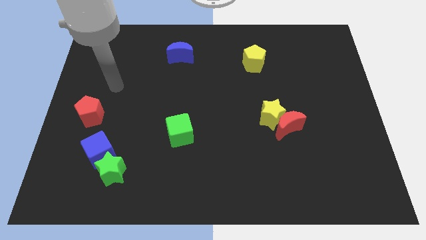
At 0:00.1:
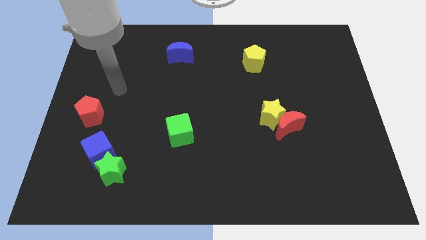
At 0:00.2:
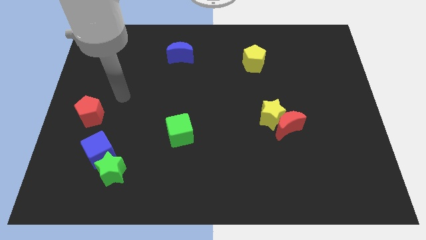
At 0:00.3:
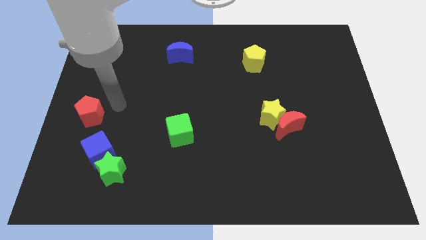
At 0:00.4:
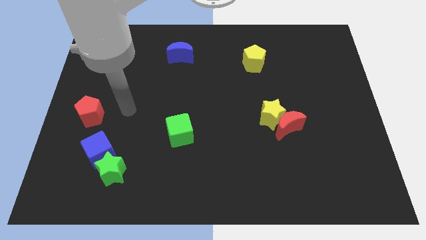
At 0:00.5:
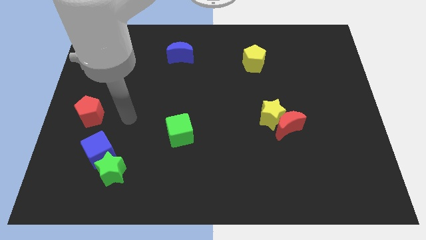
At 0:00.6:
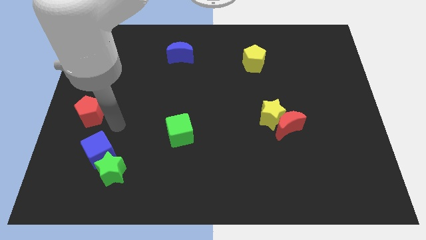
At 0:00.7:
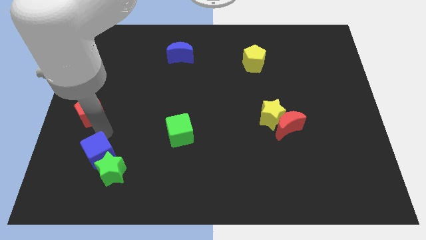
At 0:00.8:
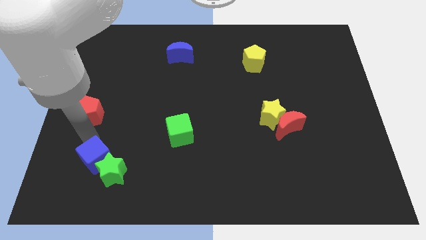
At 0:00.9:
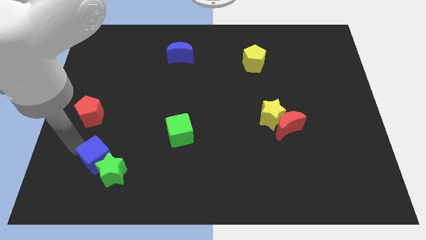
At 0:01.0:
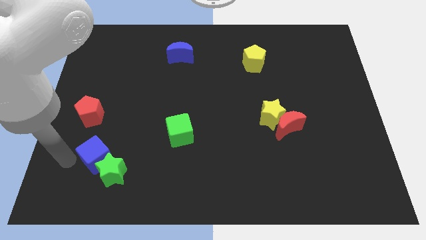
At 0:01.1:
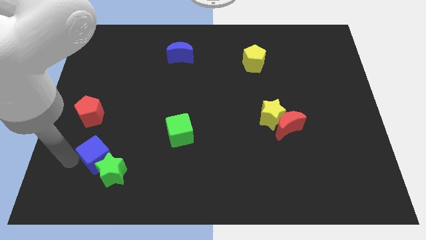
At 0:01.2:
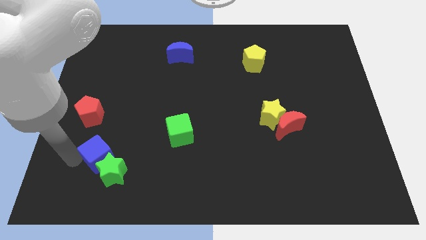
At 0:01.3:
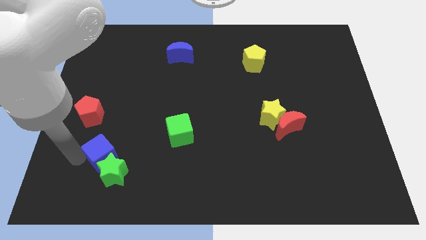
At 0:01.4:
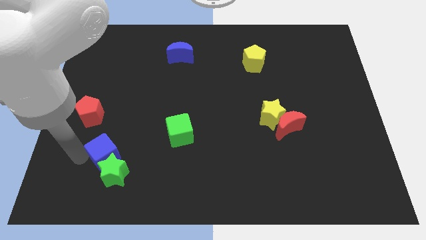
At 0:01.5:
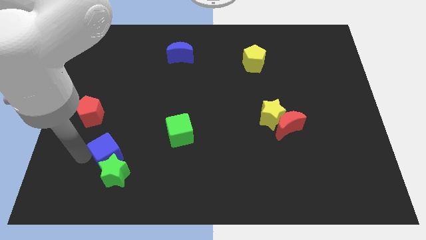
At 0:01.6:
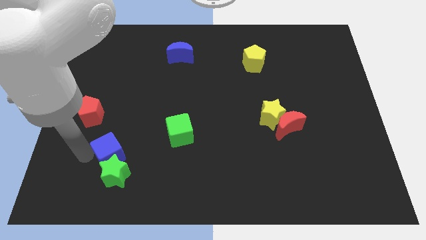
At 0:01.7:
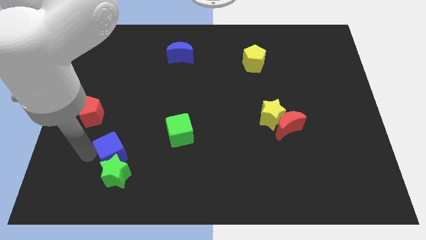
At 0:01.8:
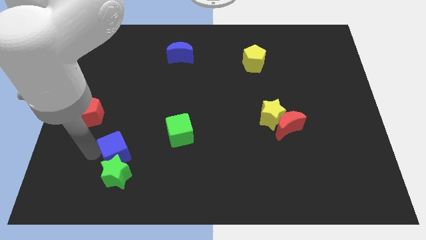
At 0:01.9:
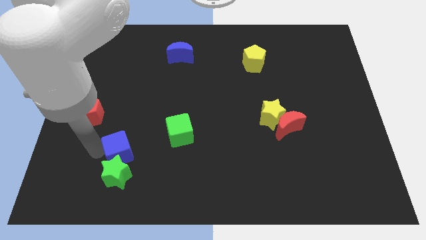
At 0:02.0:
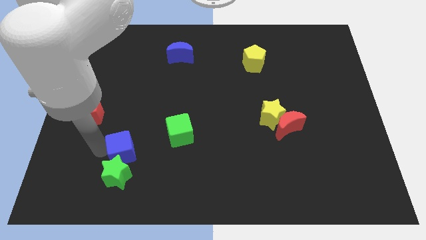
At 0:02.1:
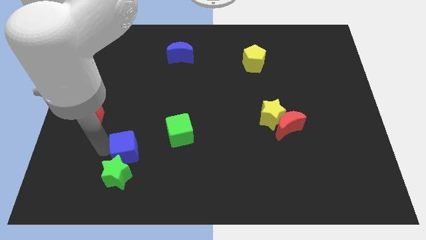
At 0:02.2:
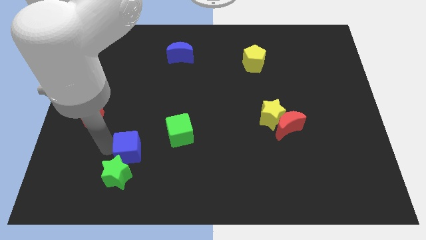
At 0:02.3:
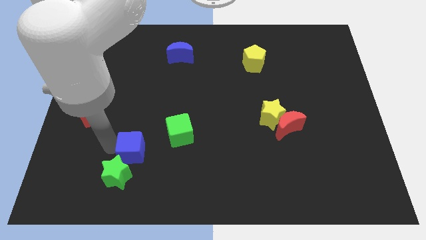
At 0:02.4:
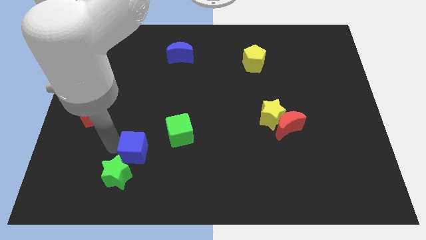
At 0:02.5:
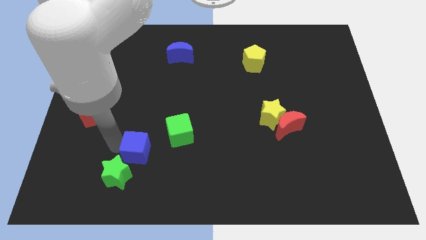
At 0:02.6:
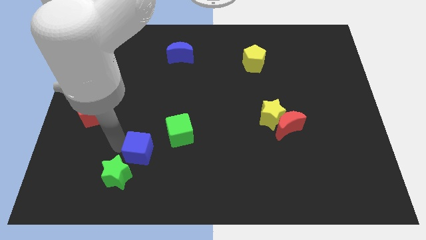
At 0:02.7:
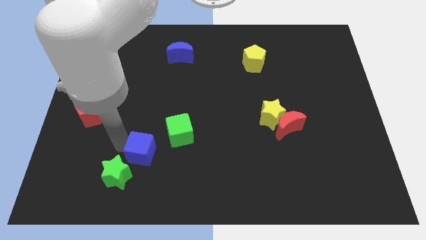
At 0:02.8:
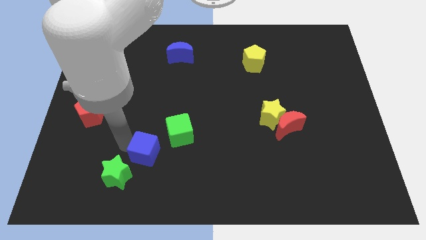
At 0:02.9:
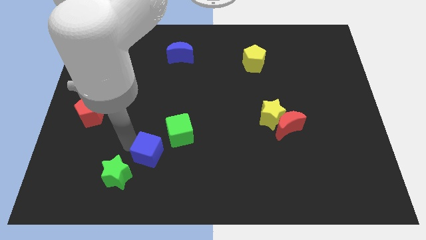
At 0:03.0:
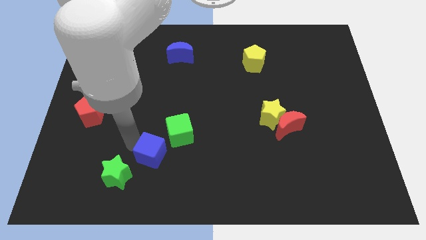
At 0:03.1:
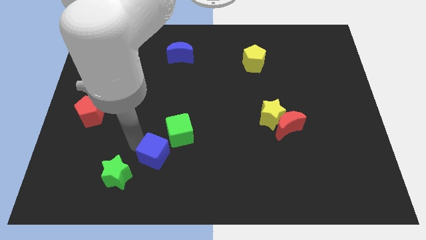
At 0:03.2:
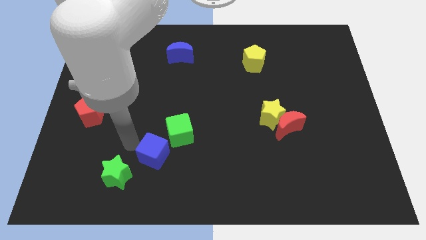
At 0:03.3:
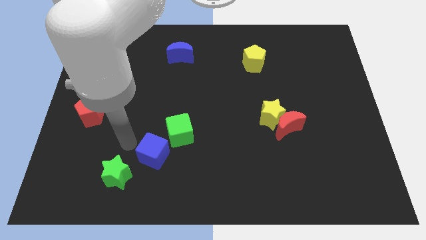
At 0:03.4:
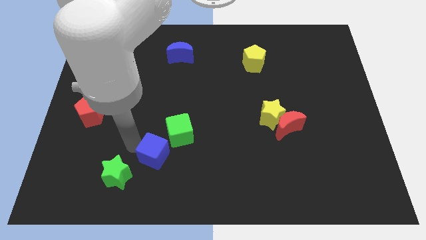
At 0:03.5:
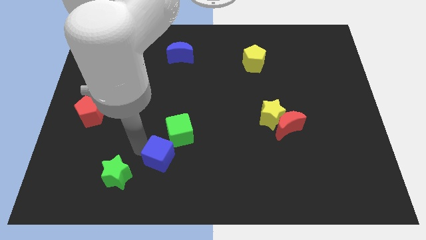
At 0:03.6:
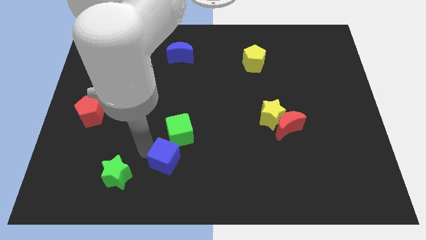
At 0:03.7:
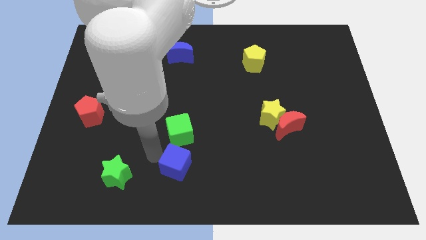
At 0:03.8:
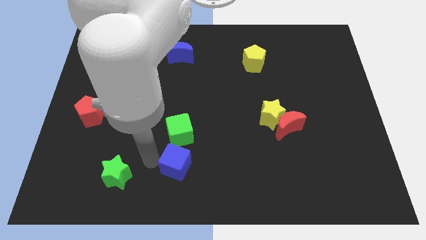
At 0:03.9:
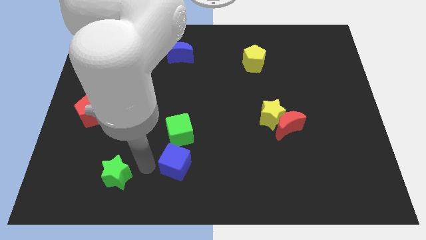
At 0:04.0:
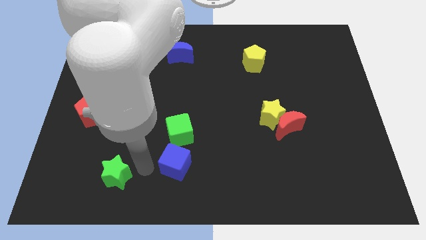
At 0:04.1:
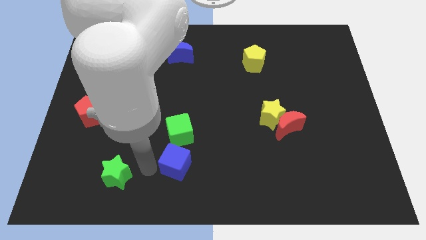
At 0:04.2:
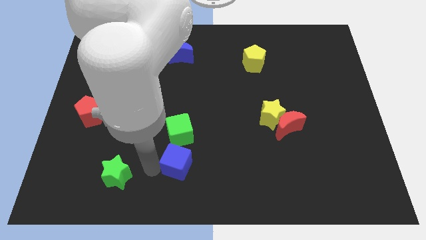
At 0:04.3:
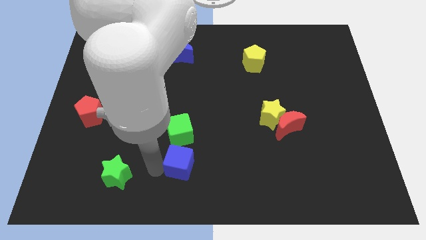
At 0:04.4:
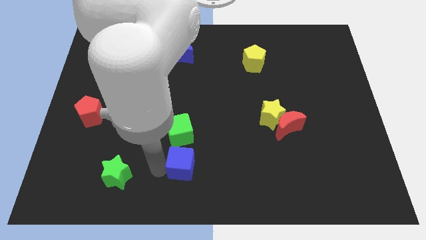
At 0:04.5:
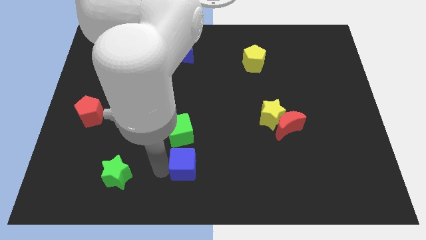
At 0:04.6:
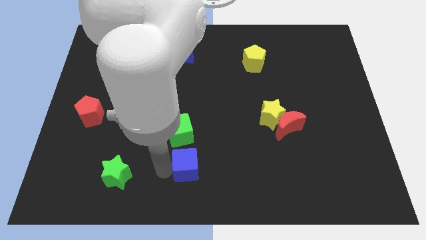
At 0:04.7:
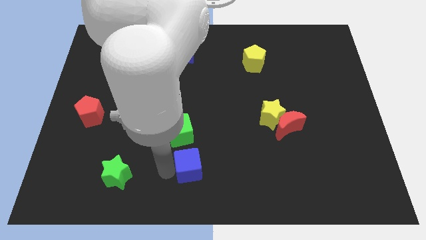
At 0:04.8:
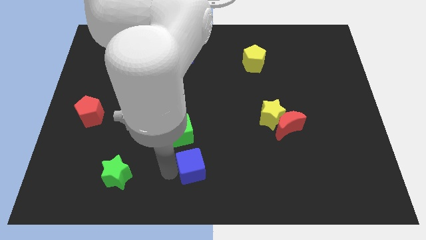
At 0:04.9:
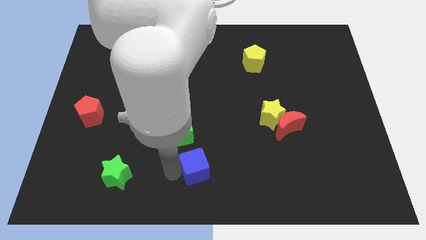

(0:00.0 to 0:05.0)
push the blue cube right

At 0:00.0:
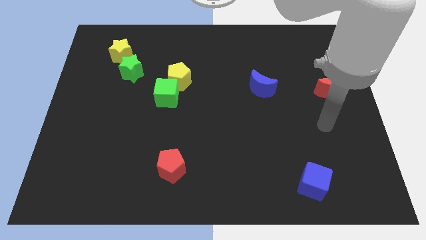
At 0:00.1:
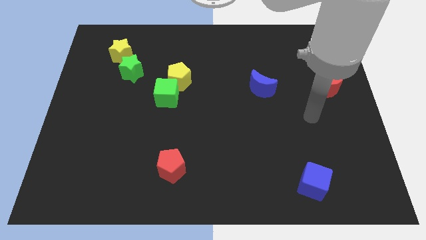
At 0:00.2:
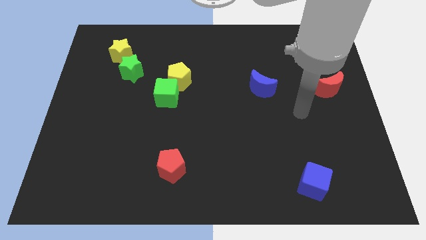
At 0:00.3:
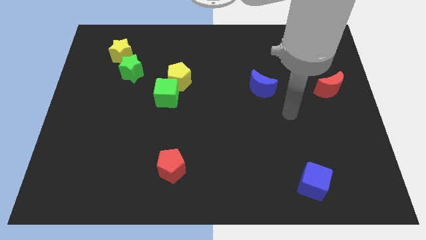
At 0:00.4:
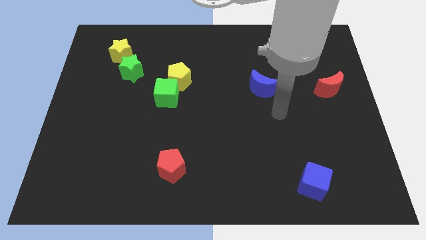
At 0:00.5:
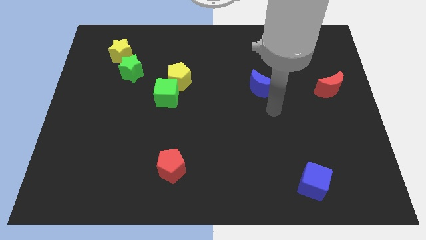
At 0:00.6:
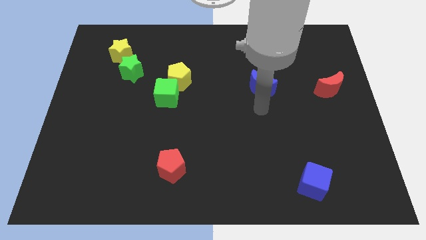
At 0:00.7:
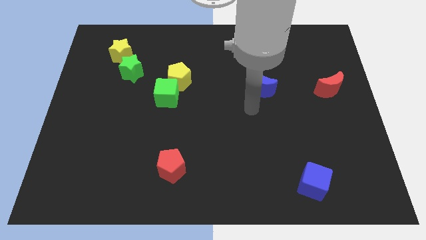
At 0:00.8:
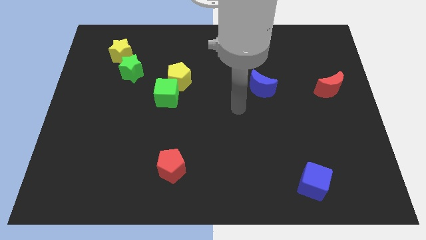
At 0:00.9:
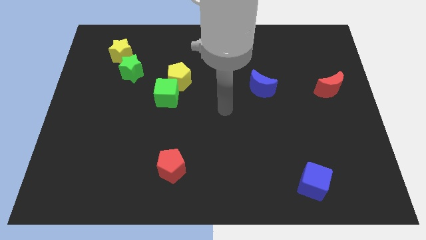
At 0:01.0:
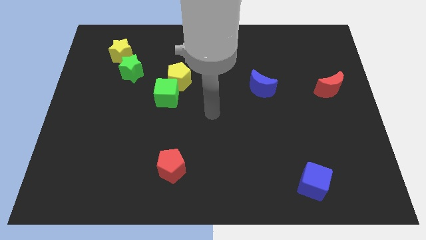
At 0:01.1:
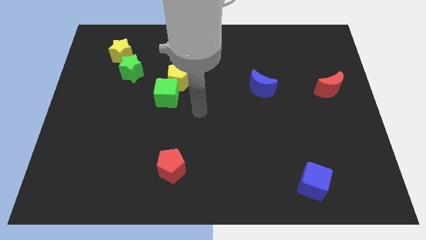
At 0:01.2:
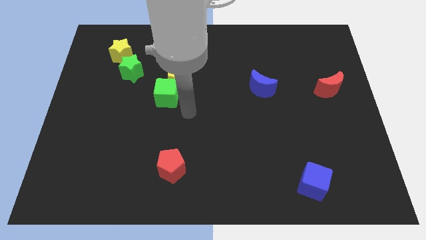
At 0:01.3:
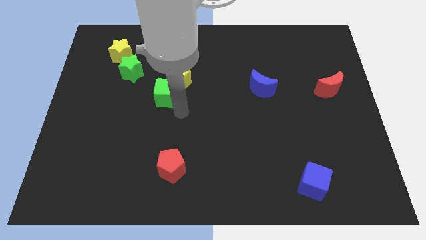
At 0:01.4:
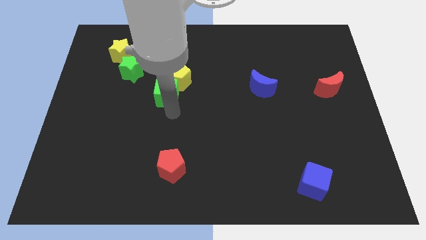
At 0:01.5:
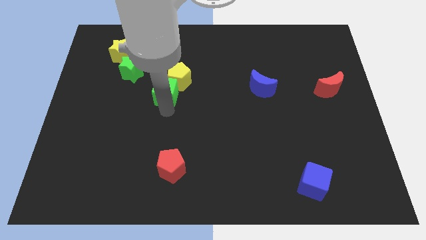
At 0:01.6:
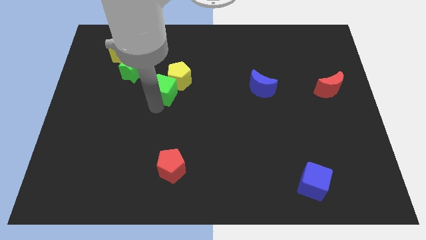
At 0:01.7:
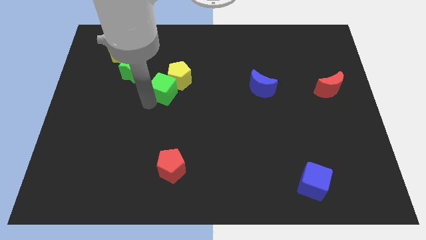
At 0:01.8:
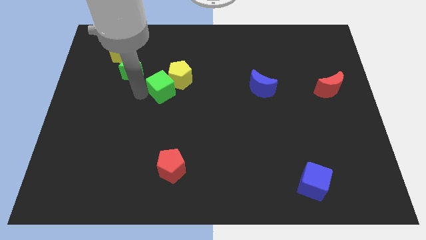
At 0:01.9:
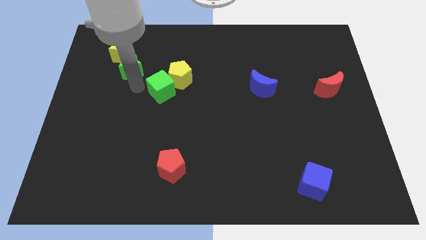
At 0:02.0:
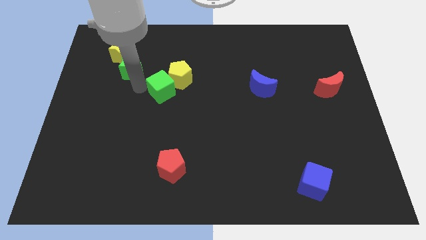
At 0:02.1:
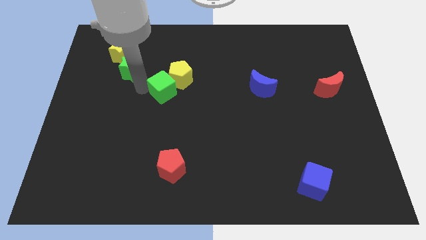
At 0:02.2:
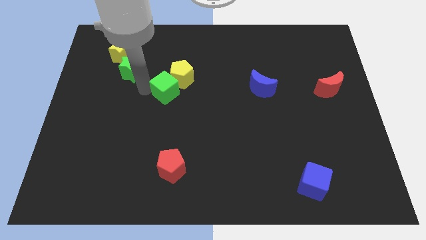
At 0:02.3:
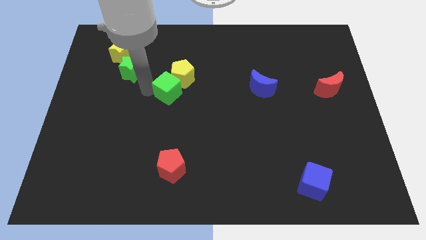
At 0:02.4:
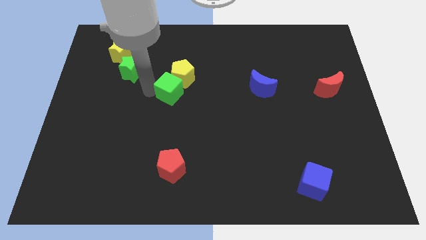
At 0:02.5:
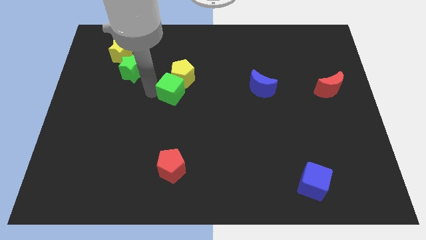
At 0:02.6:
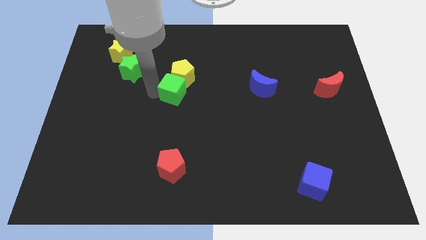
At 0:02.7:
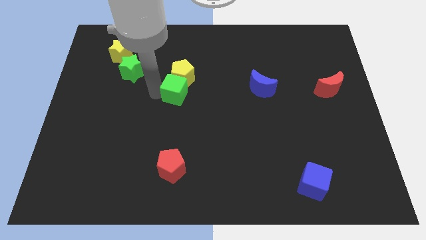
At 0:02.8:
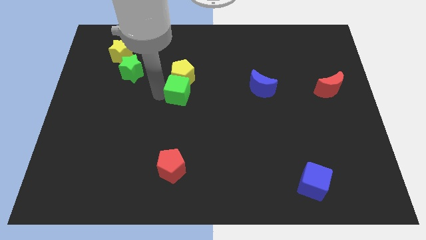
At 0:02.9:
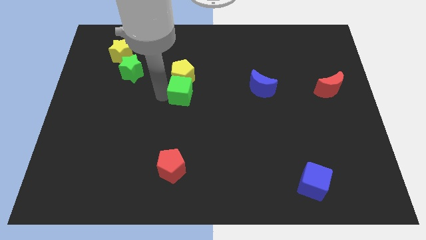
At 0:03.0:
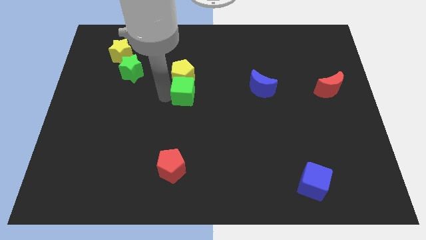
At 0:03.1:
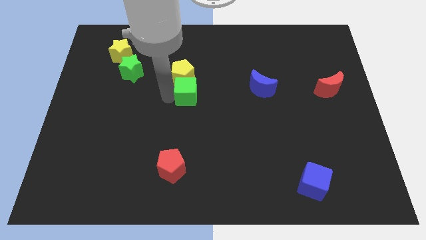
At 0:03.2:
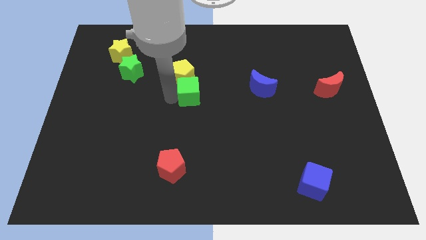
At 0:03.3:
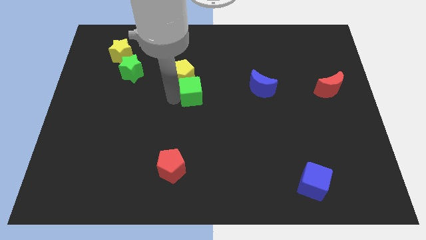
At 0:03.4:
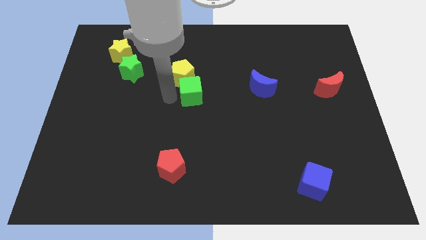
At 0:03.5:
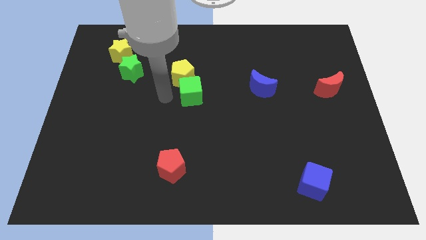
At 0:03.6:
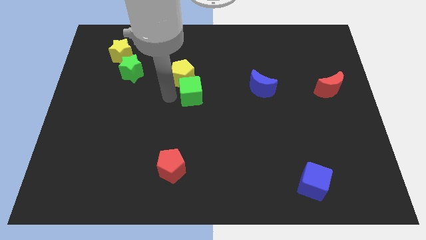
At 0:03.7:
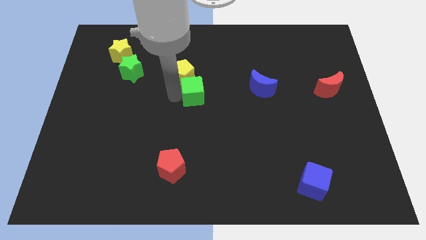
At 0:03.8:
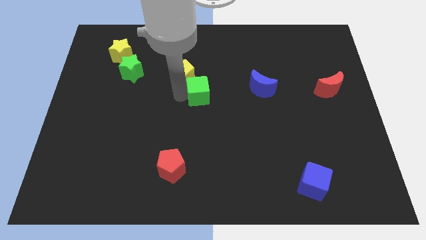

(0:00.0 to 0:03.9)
slide the green cube to the right a bit
